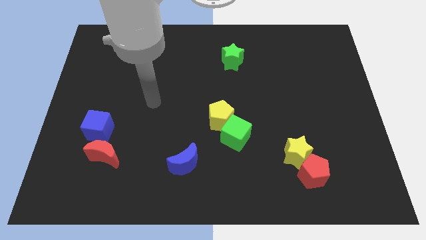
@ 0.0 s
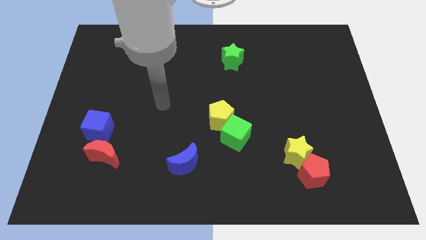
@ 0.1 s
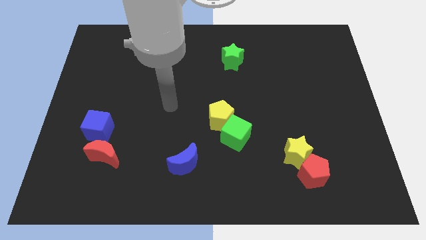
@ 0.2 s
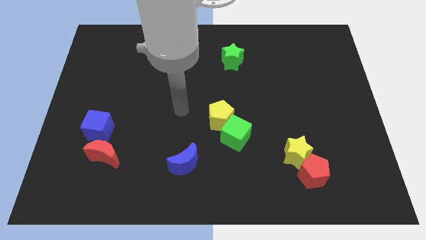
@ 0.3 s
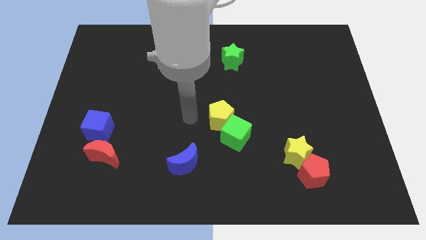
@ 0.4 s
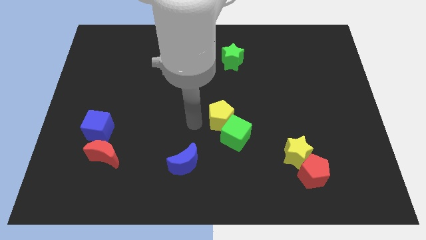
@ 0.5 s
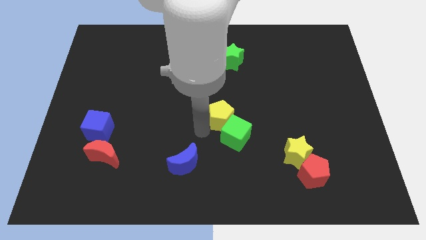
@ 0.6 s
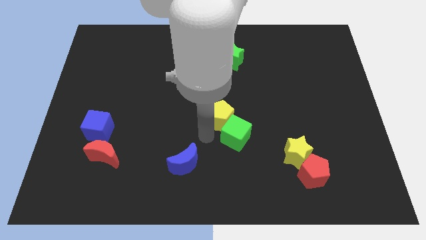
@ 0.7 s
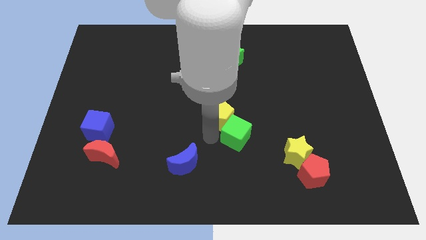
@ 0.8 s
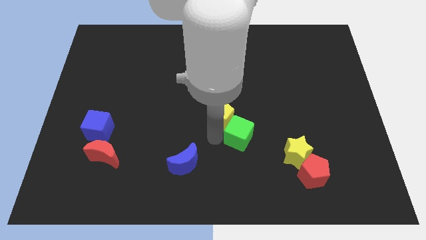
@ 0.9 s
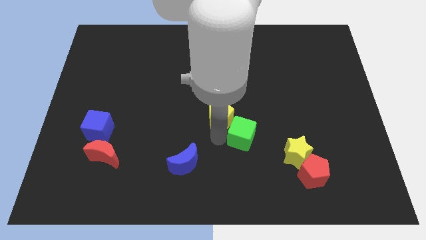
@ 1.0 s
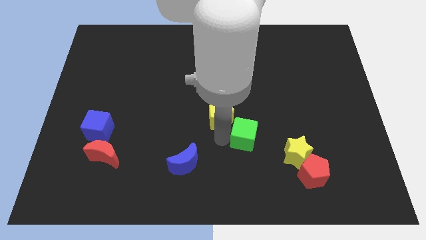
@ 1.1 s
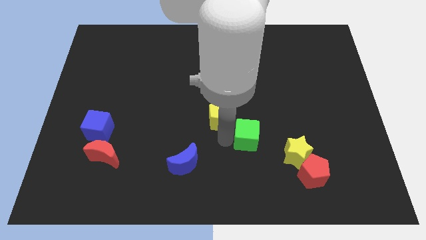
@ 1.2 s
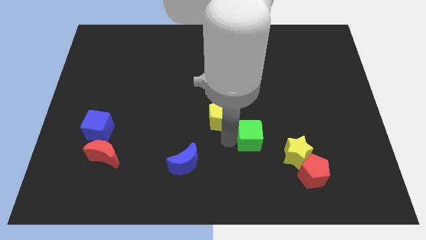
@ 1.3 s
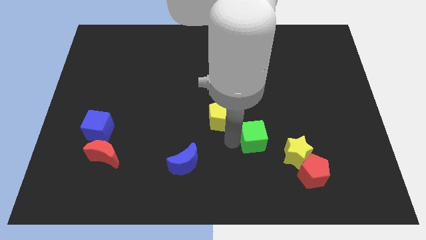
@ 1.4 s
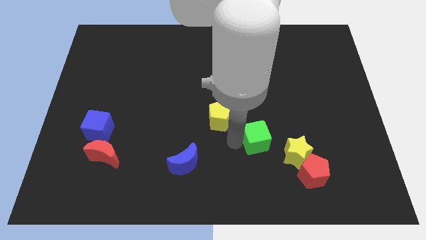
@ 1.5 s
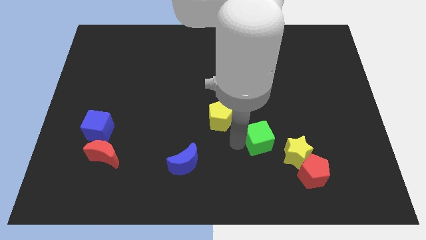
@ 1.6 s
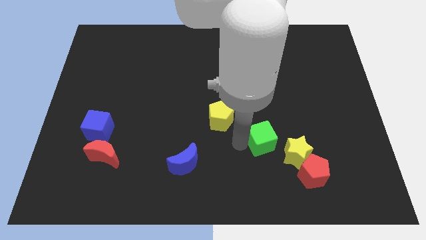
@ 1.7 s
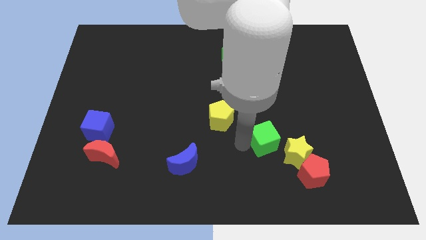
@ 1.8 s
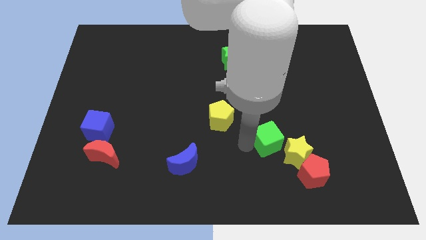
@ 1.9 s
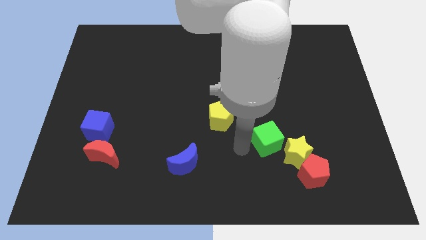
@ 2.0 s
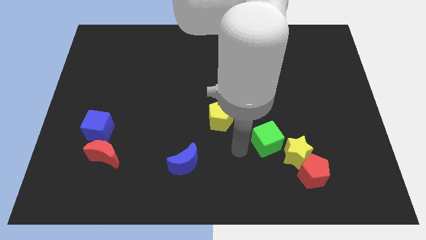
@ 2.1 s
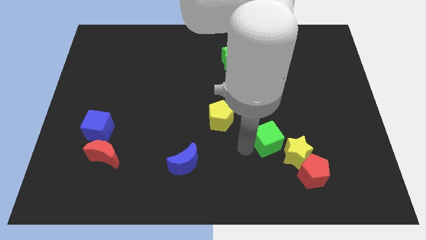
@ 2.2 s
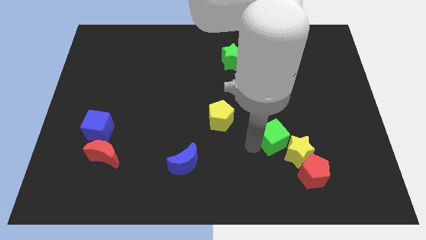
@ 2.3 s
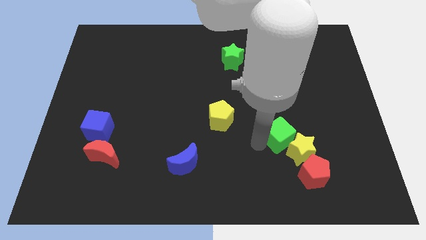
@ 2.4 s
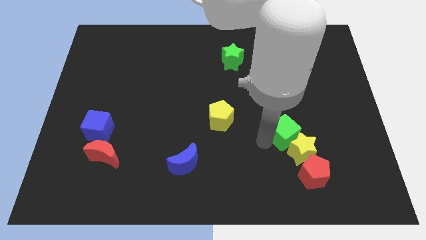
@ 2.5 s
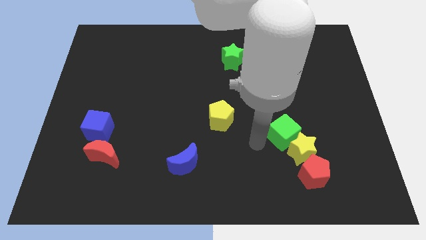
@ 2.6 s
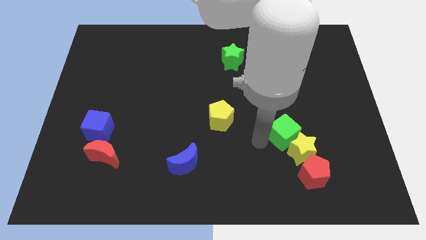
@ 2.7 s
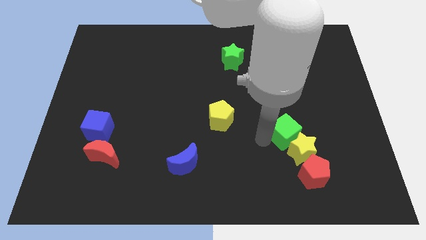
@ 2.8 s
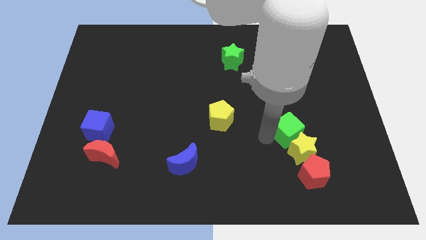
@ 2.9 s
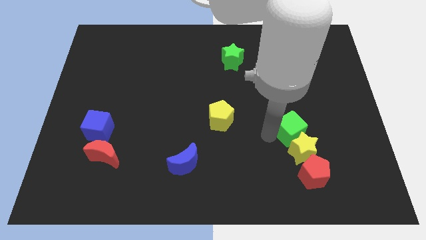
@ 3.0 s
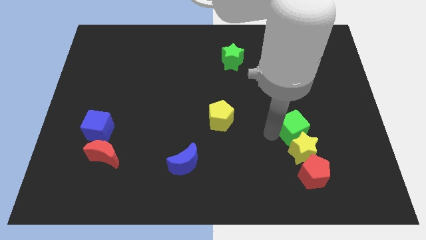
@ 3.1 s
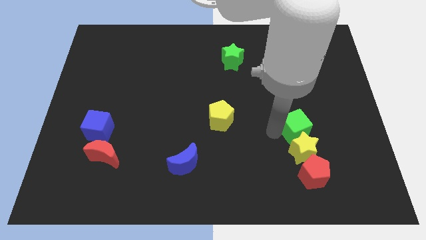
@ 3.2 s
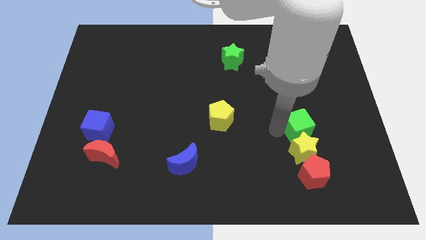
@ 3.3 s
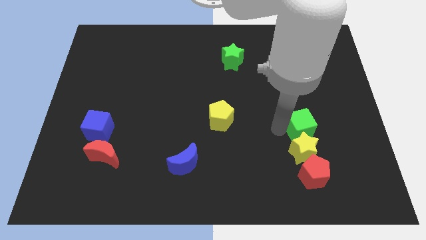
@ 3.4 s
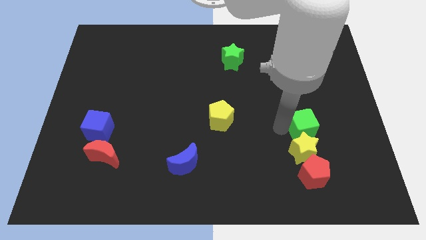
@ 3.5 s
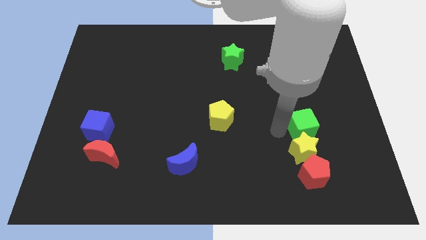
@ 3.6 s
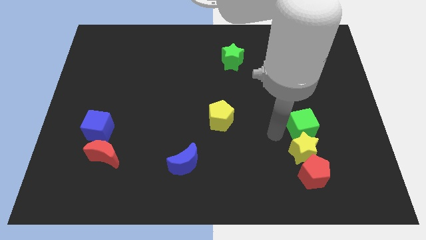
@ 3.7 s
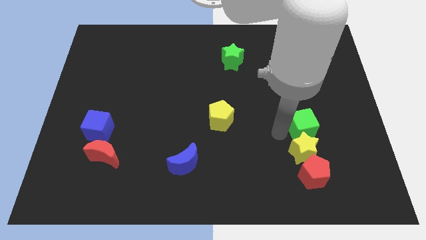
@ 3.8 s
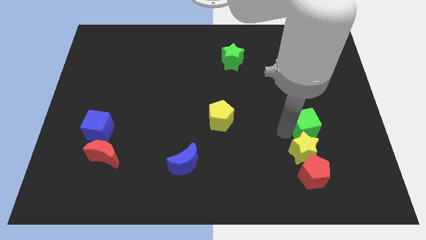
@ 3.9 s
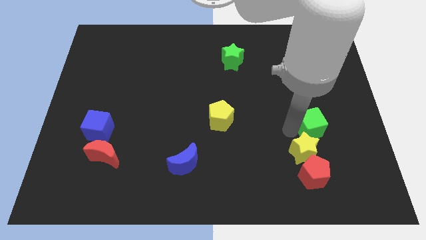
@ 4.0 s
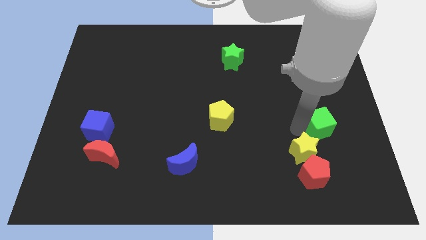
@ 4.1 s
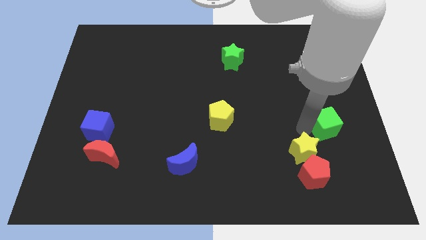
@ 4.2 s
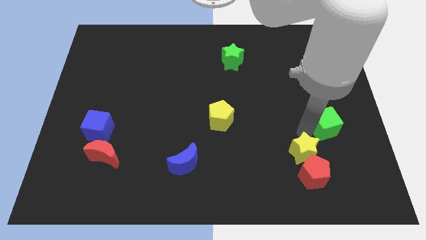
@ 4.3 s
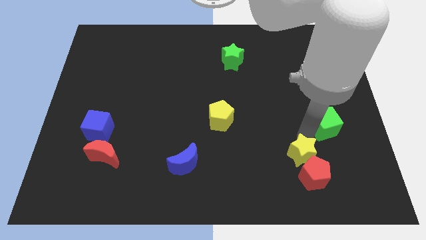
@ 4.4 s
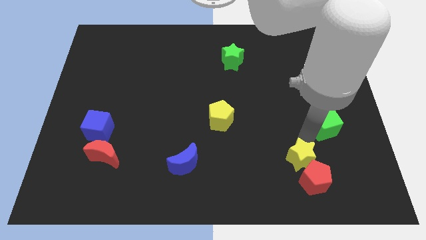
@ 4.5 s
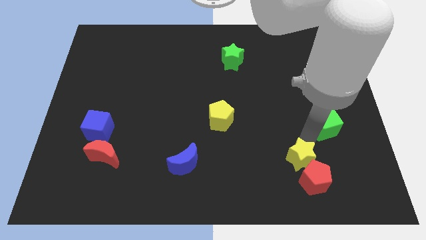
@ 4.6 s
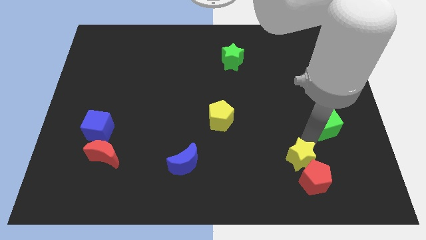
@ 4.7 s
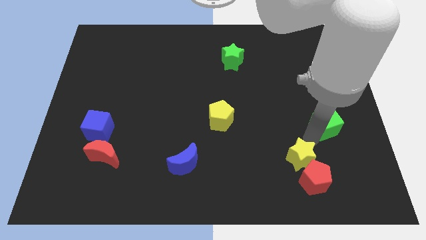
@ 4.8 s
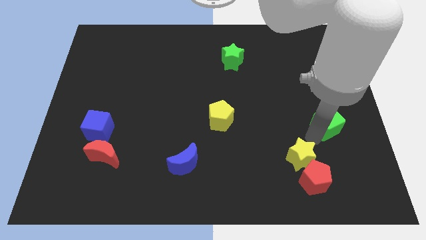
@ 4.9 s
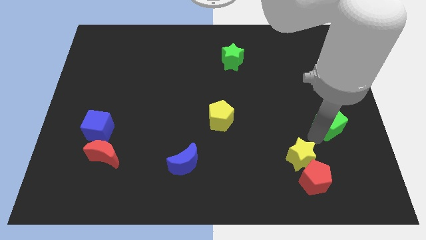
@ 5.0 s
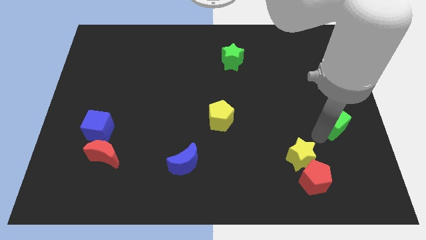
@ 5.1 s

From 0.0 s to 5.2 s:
move the green cube to the right side of the board

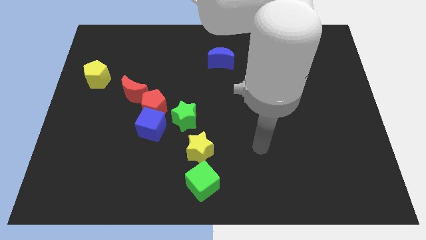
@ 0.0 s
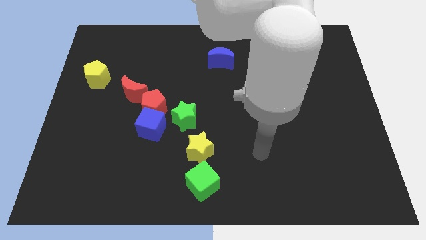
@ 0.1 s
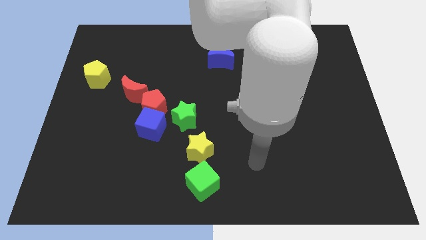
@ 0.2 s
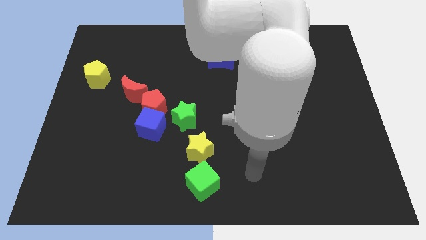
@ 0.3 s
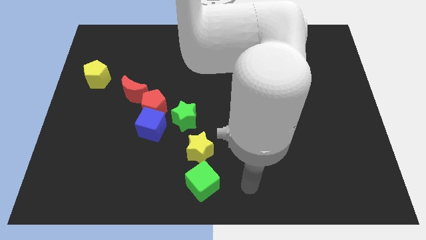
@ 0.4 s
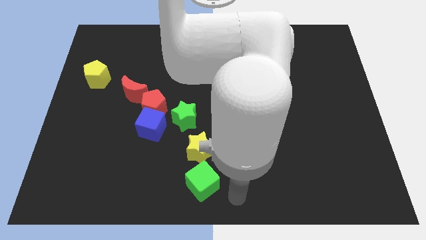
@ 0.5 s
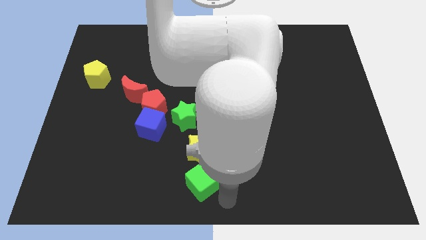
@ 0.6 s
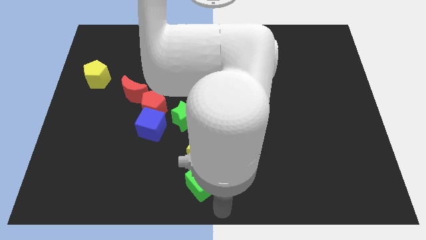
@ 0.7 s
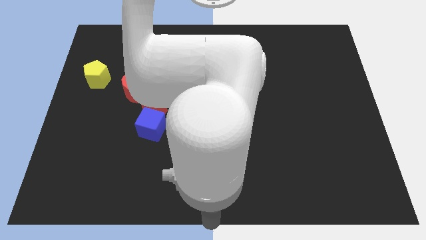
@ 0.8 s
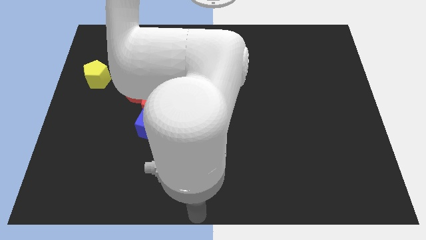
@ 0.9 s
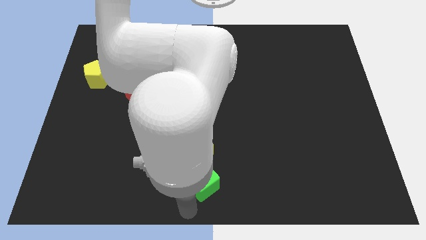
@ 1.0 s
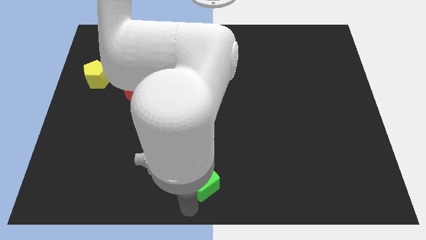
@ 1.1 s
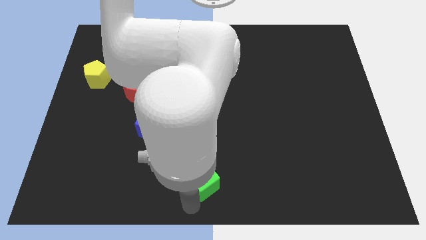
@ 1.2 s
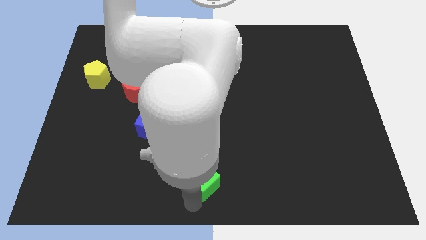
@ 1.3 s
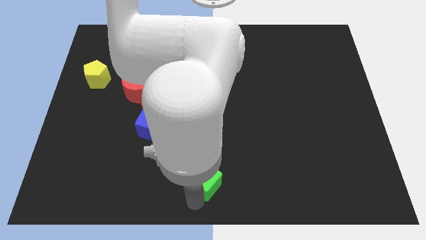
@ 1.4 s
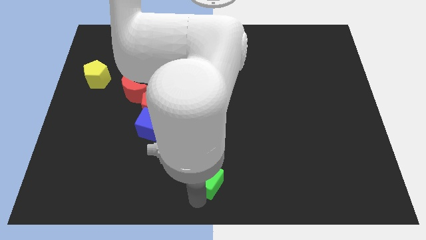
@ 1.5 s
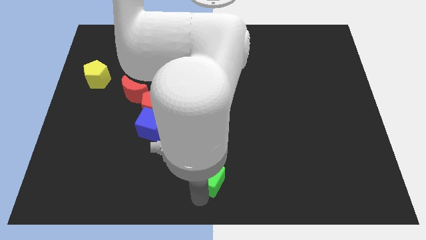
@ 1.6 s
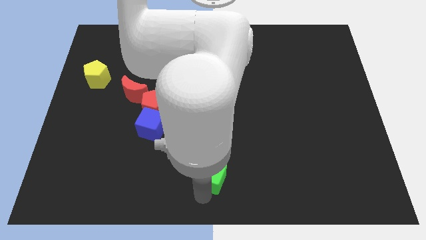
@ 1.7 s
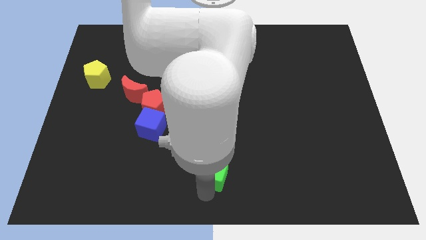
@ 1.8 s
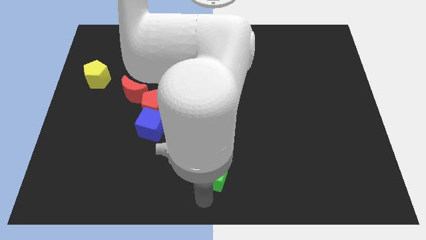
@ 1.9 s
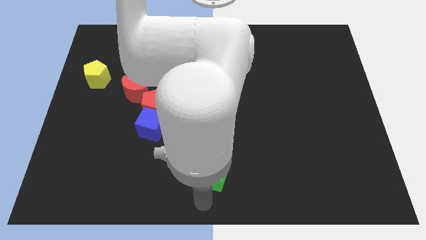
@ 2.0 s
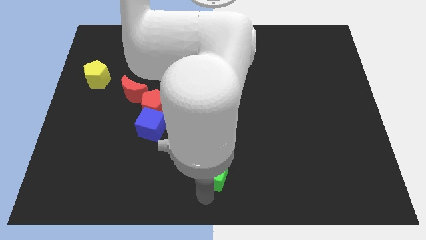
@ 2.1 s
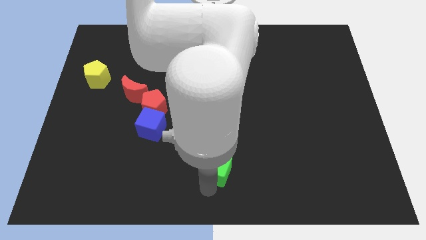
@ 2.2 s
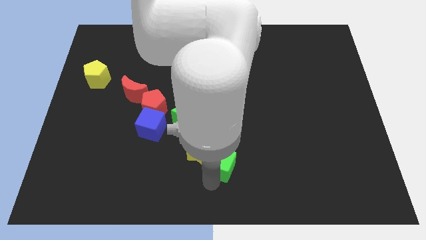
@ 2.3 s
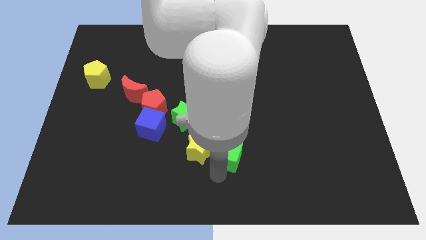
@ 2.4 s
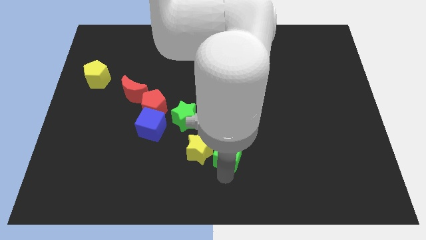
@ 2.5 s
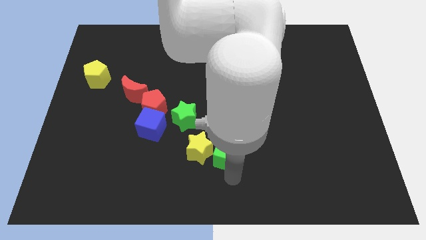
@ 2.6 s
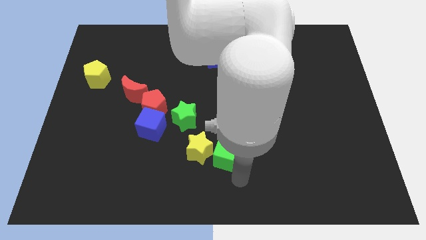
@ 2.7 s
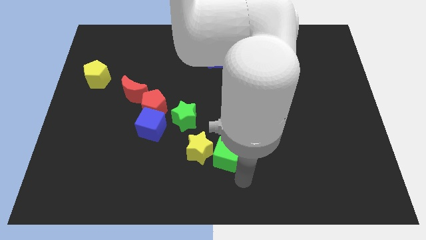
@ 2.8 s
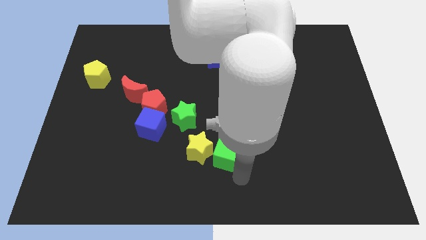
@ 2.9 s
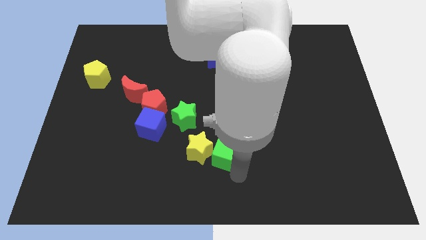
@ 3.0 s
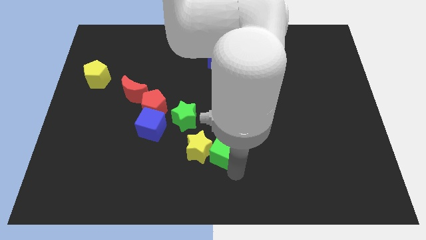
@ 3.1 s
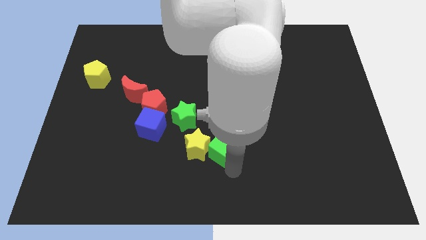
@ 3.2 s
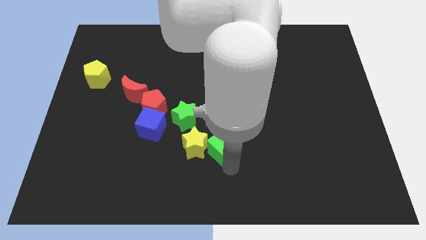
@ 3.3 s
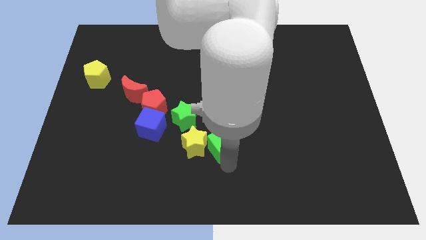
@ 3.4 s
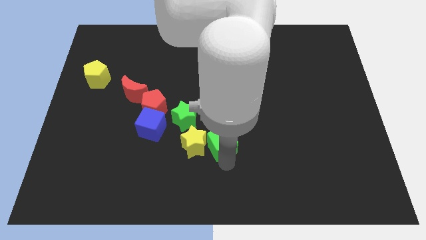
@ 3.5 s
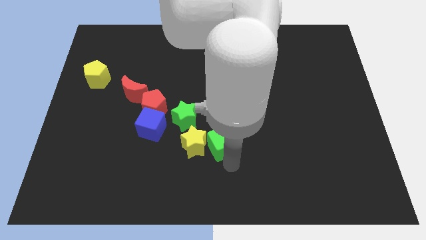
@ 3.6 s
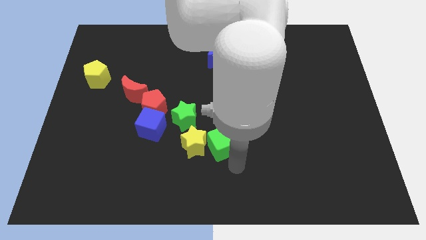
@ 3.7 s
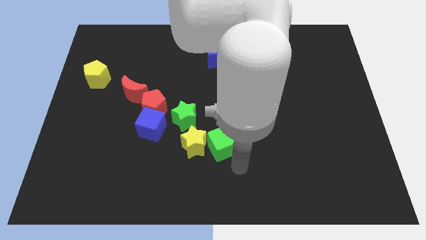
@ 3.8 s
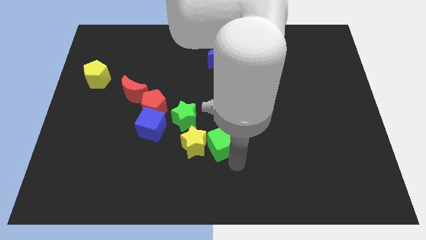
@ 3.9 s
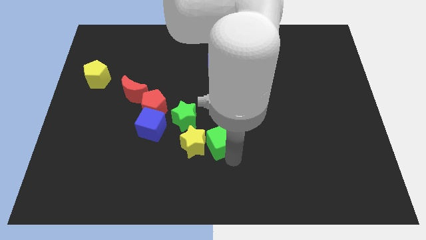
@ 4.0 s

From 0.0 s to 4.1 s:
push the green cube to the center
